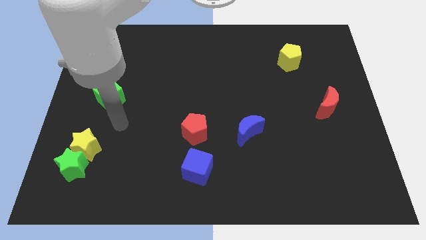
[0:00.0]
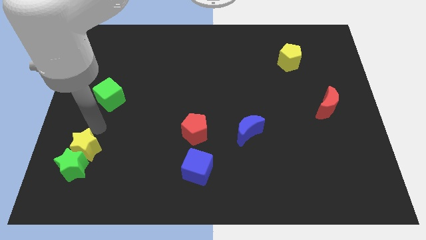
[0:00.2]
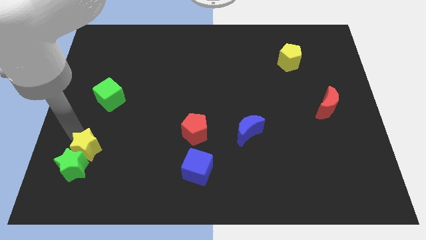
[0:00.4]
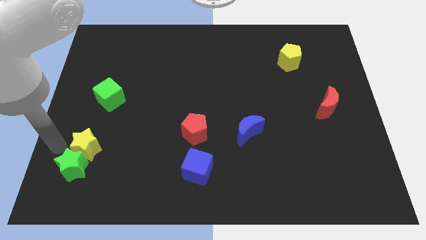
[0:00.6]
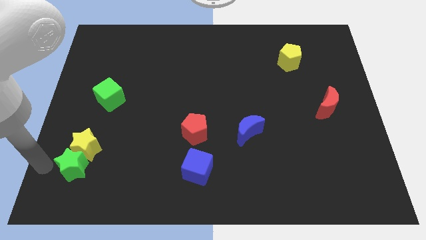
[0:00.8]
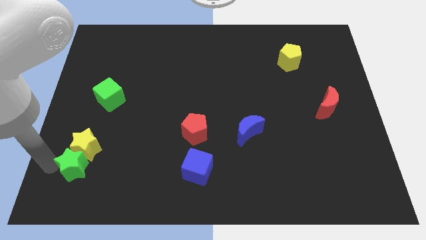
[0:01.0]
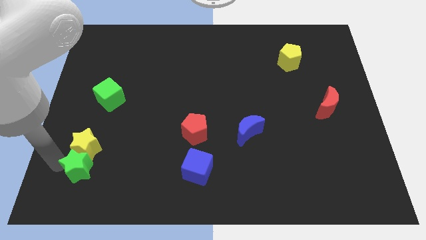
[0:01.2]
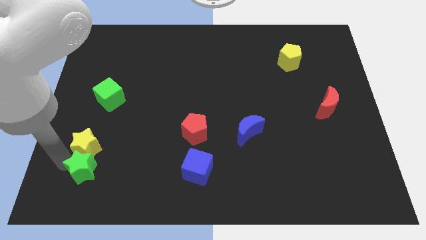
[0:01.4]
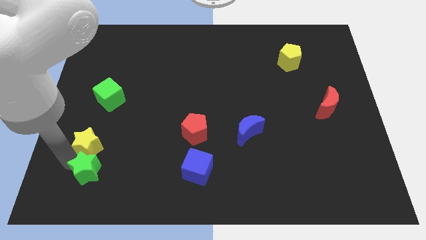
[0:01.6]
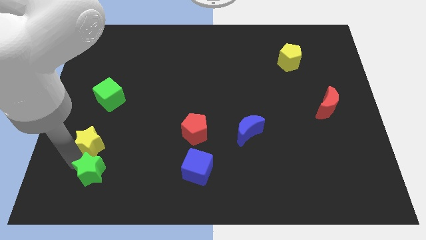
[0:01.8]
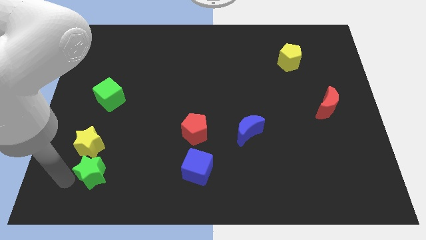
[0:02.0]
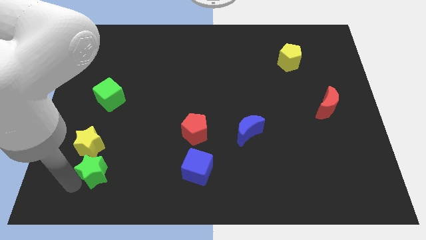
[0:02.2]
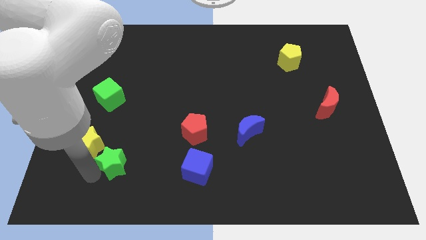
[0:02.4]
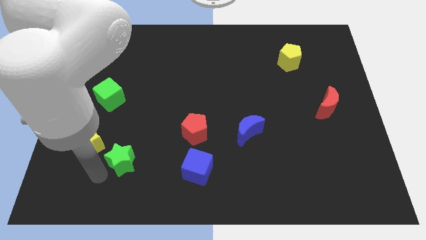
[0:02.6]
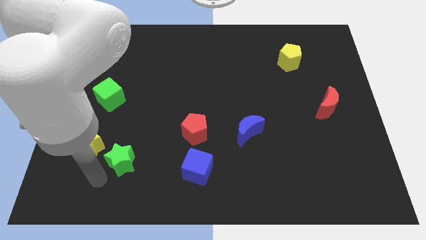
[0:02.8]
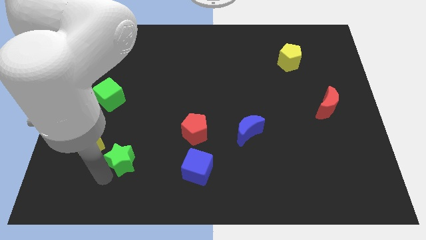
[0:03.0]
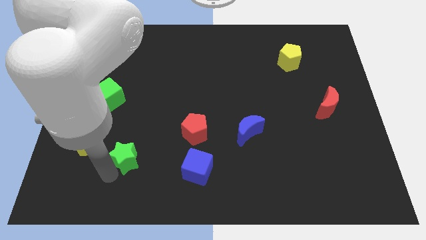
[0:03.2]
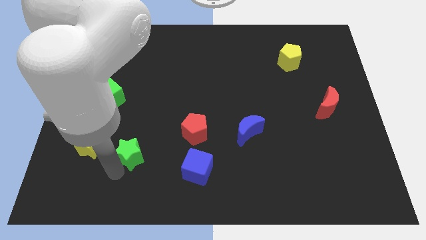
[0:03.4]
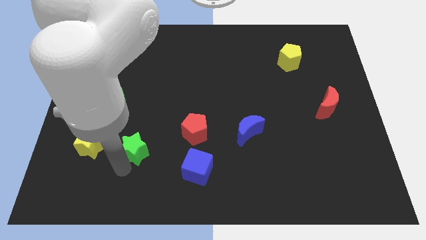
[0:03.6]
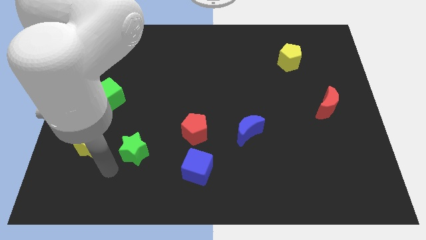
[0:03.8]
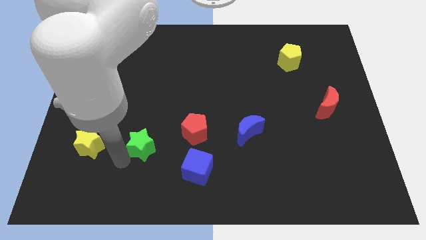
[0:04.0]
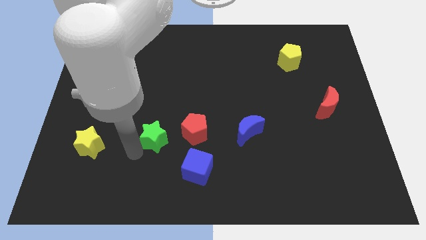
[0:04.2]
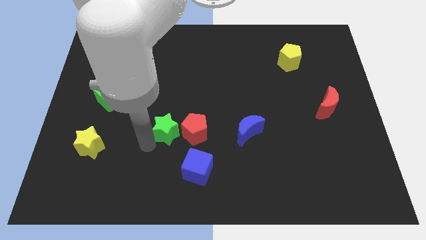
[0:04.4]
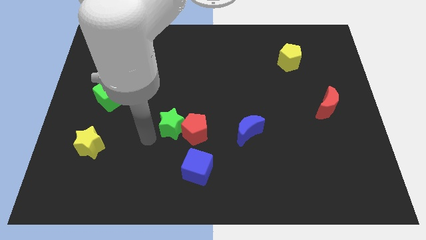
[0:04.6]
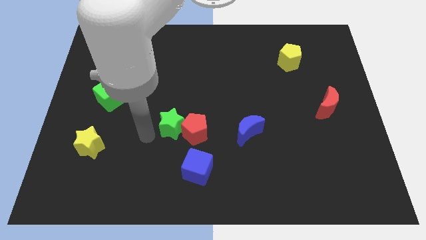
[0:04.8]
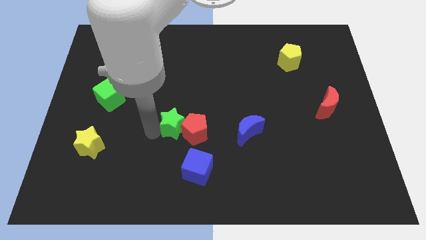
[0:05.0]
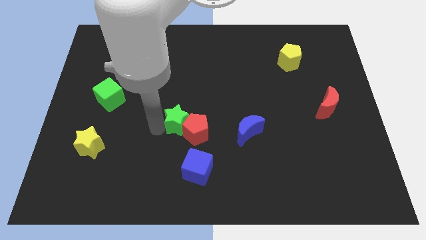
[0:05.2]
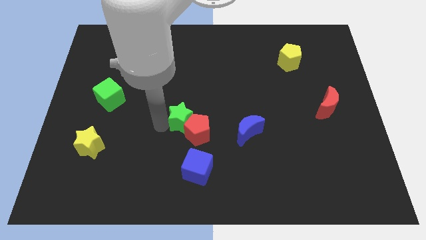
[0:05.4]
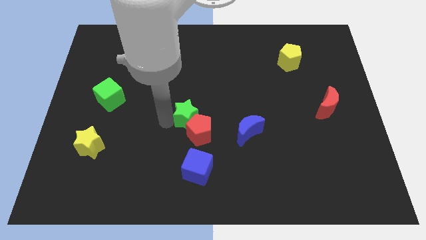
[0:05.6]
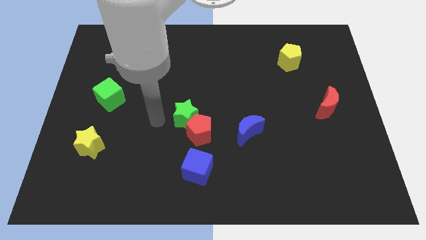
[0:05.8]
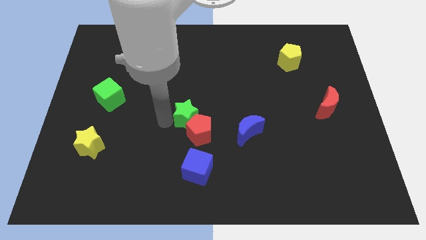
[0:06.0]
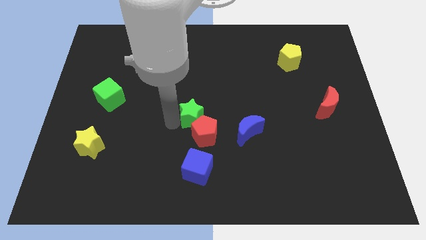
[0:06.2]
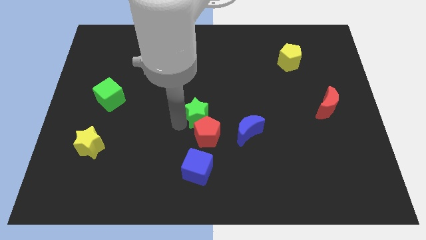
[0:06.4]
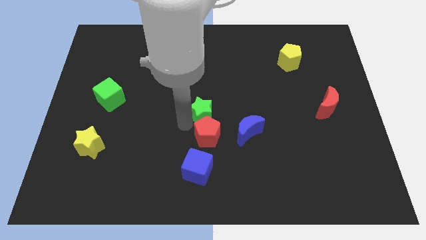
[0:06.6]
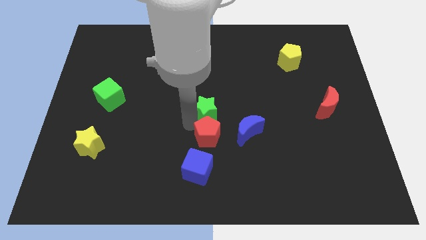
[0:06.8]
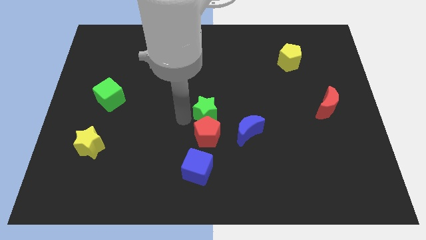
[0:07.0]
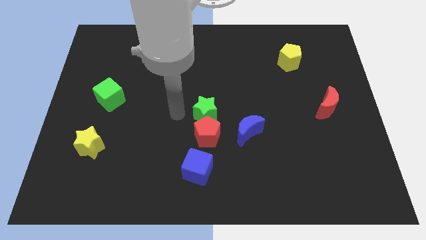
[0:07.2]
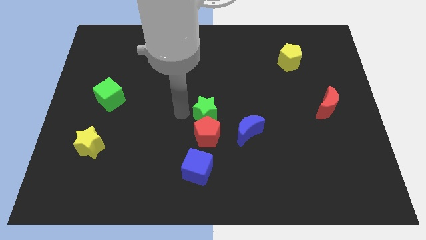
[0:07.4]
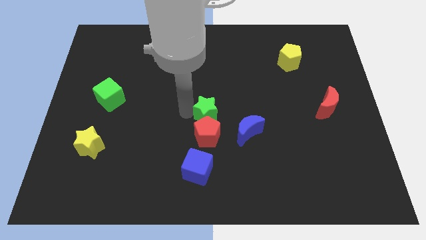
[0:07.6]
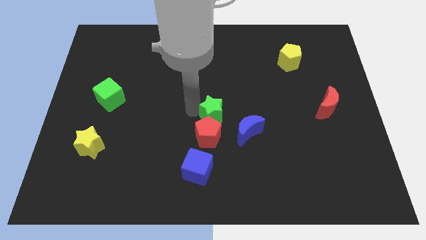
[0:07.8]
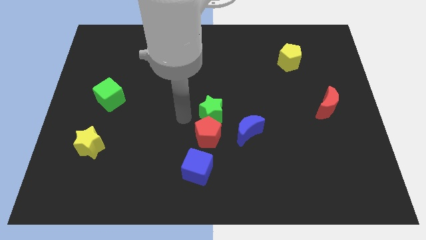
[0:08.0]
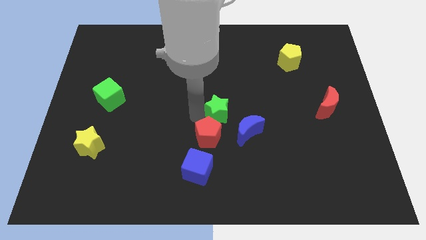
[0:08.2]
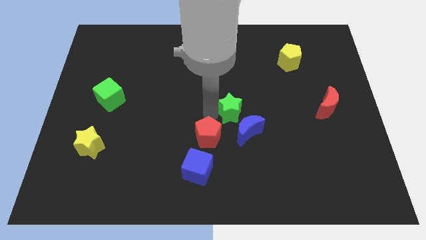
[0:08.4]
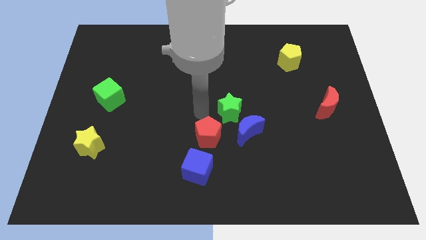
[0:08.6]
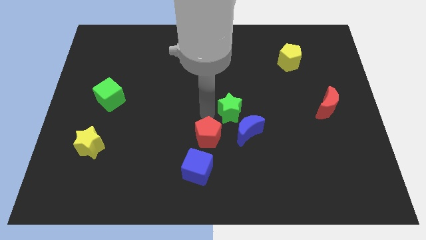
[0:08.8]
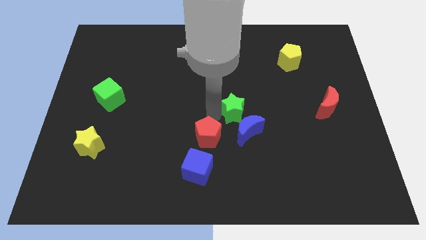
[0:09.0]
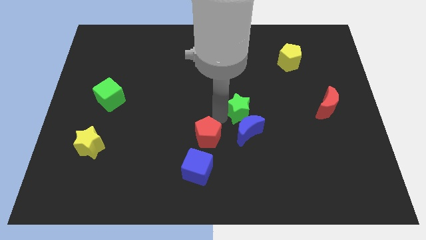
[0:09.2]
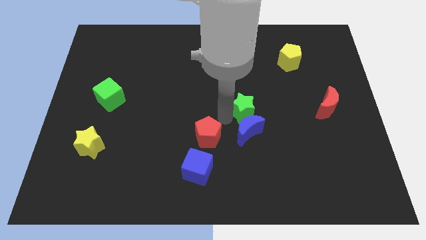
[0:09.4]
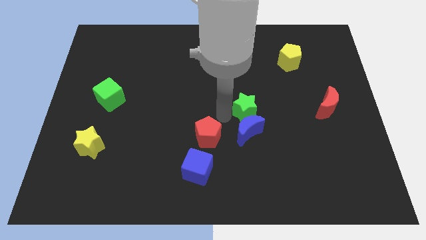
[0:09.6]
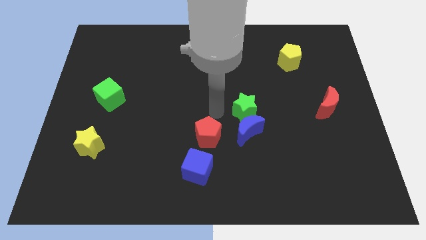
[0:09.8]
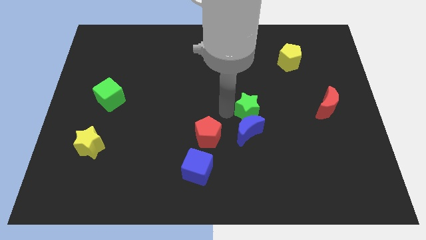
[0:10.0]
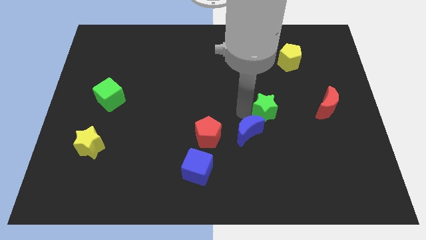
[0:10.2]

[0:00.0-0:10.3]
push the green star to the left side of the red moon

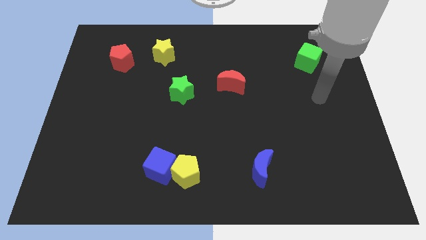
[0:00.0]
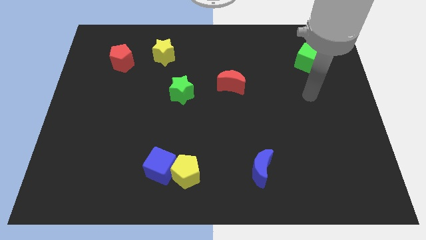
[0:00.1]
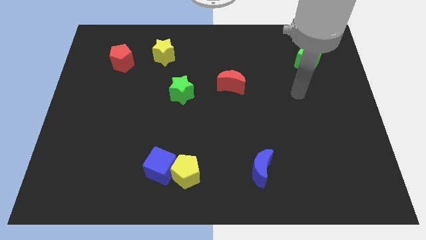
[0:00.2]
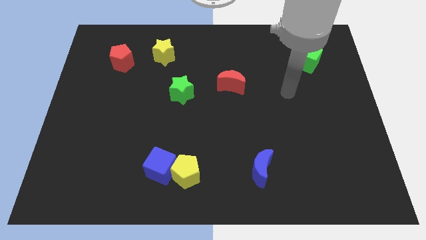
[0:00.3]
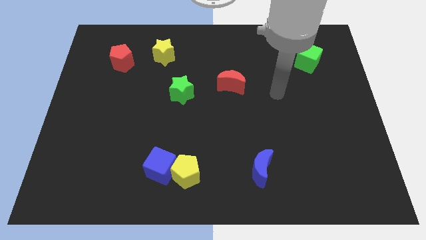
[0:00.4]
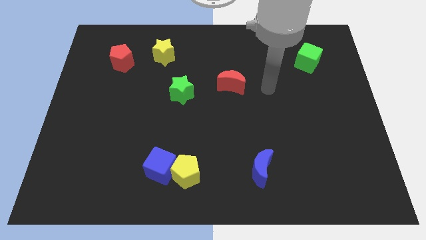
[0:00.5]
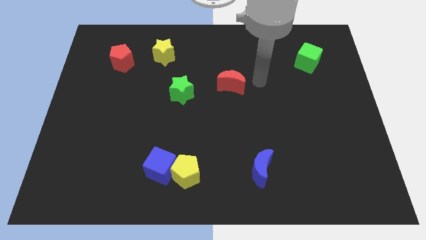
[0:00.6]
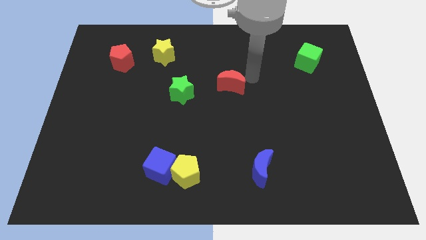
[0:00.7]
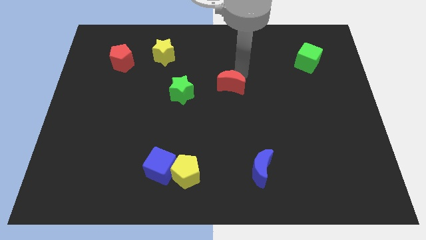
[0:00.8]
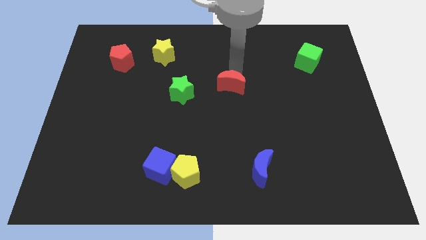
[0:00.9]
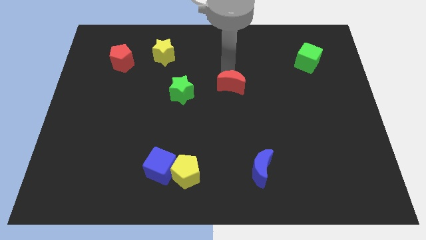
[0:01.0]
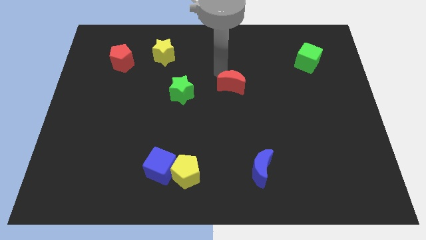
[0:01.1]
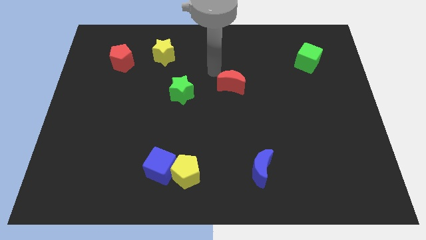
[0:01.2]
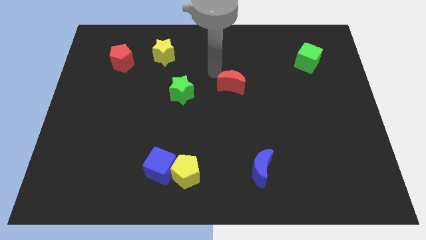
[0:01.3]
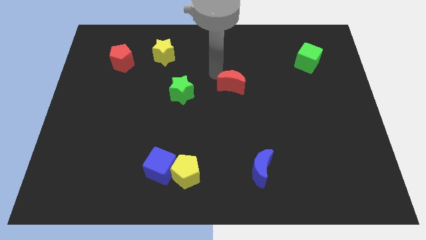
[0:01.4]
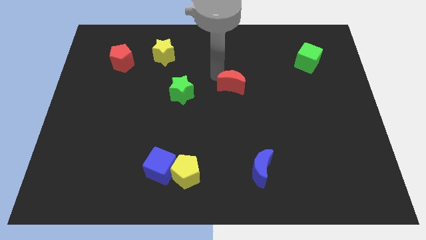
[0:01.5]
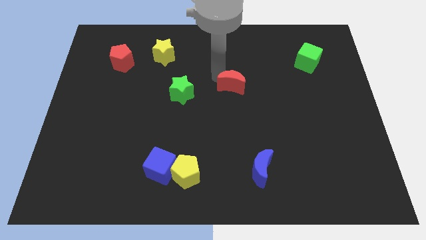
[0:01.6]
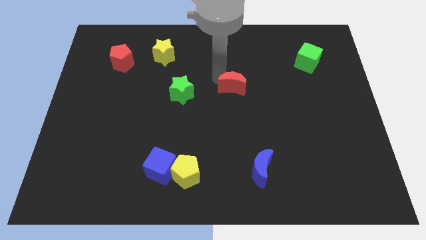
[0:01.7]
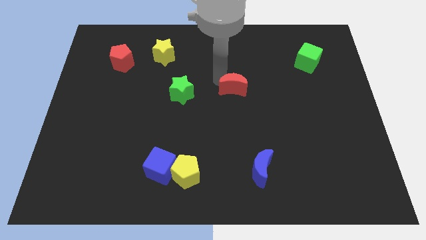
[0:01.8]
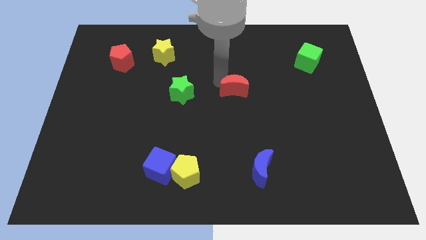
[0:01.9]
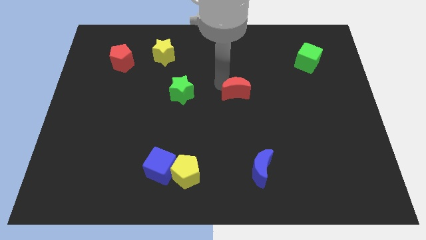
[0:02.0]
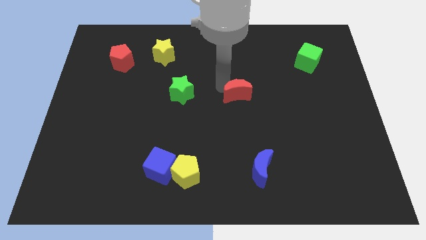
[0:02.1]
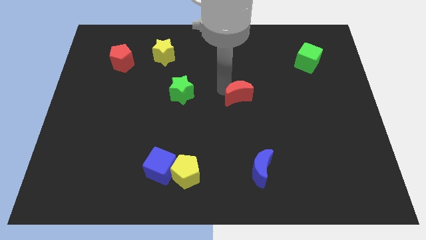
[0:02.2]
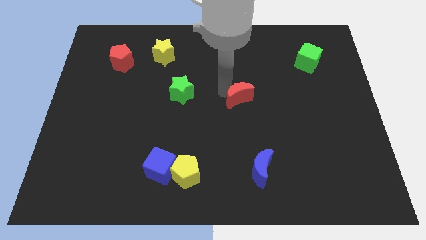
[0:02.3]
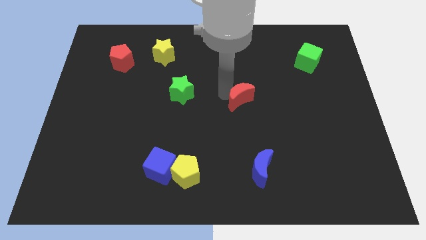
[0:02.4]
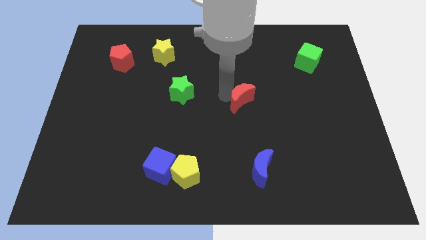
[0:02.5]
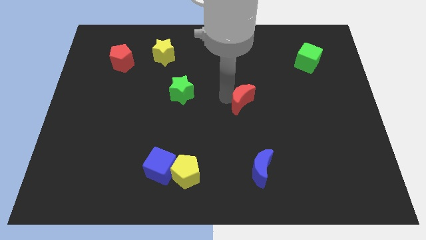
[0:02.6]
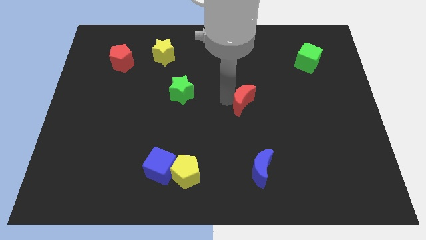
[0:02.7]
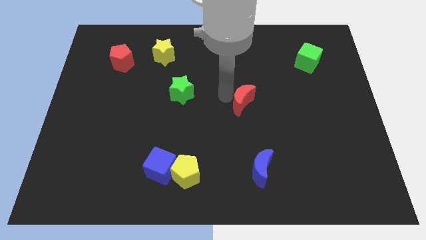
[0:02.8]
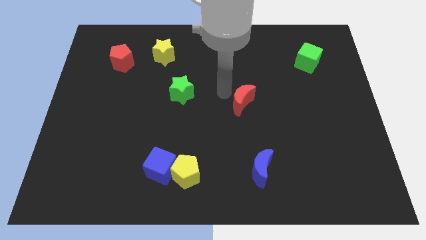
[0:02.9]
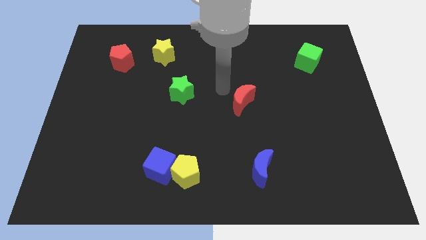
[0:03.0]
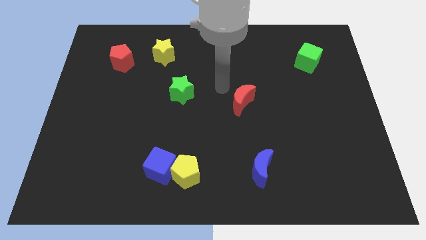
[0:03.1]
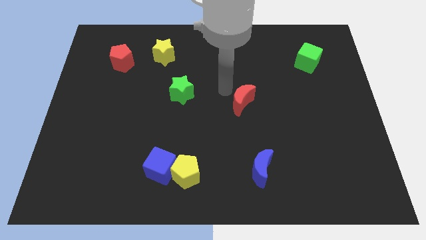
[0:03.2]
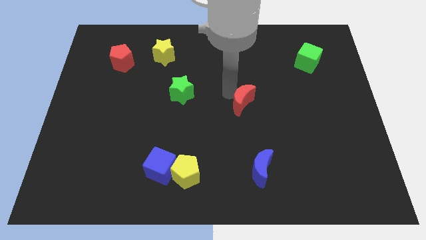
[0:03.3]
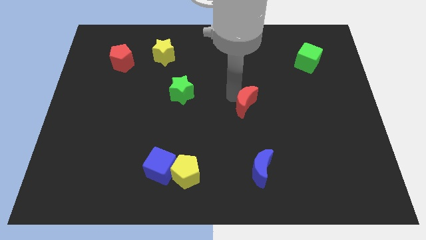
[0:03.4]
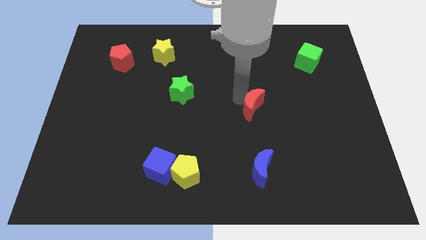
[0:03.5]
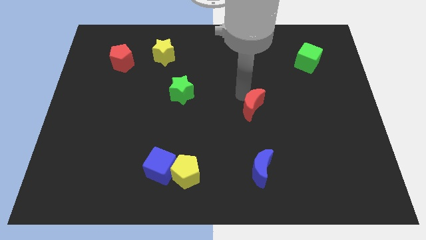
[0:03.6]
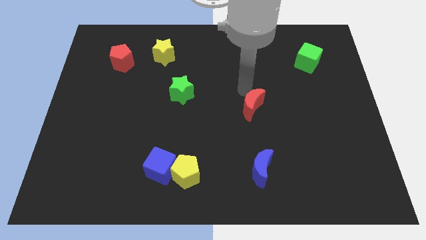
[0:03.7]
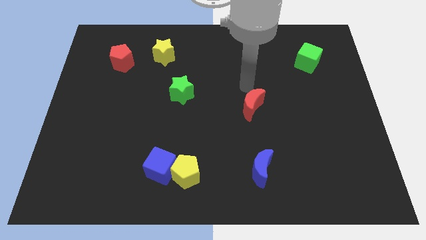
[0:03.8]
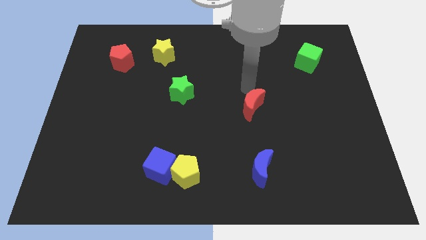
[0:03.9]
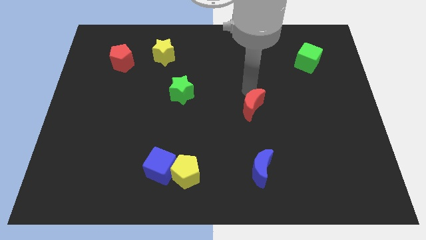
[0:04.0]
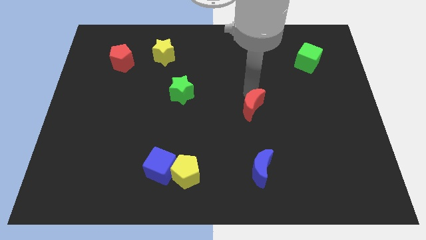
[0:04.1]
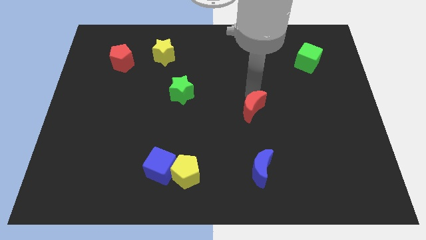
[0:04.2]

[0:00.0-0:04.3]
move the red moon above the blue moon
